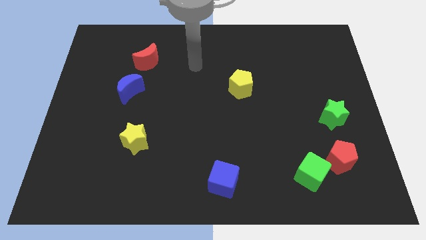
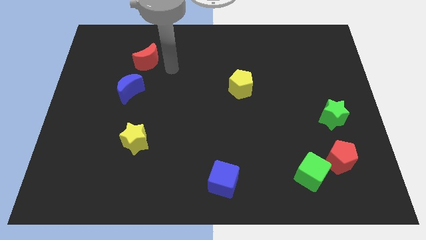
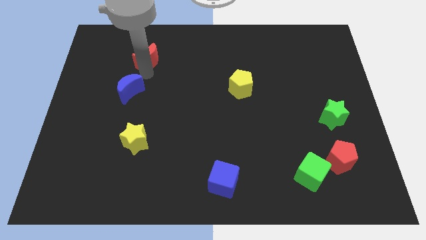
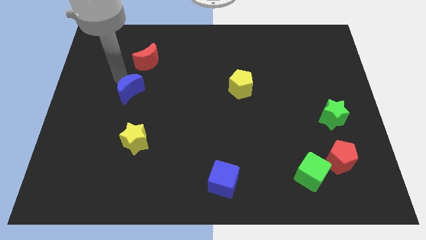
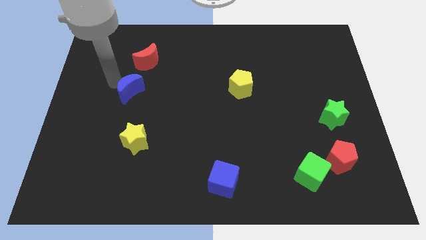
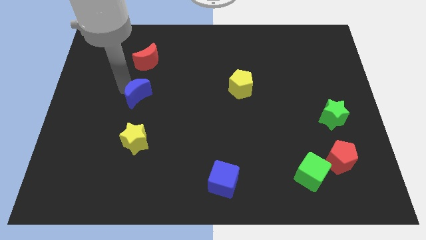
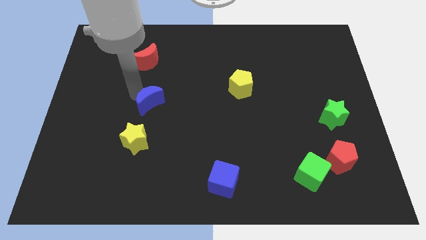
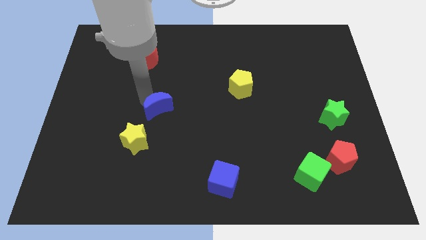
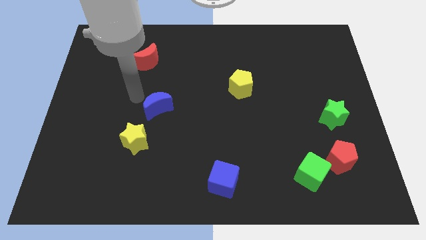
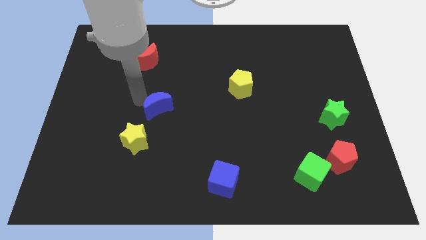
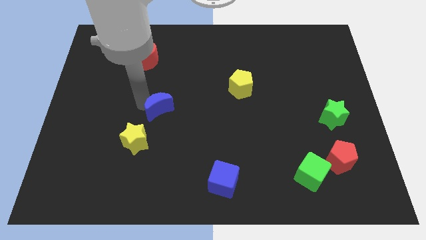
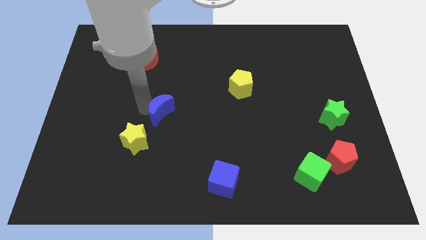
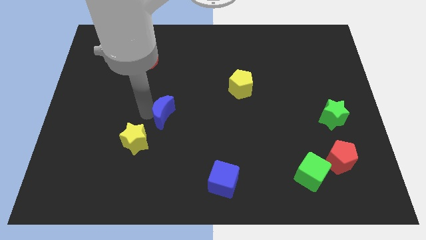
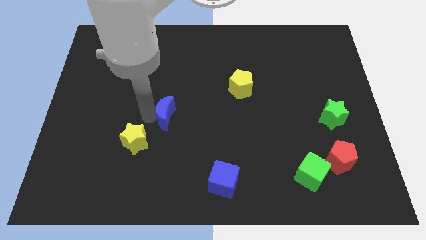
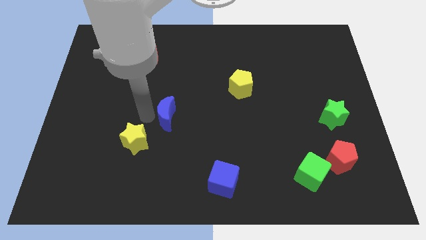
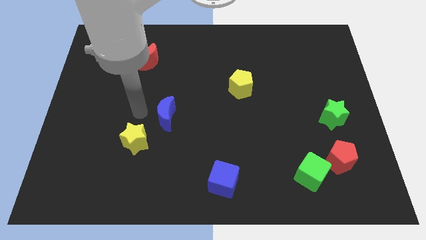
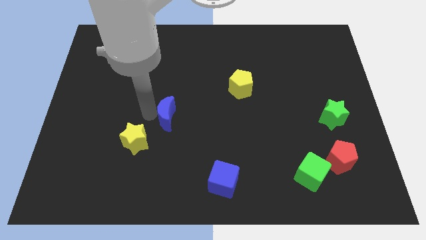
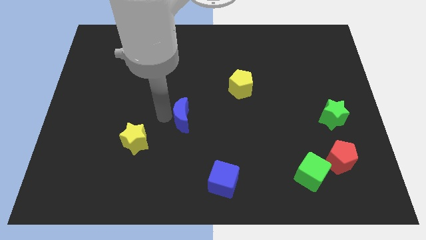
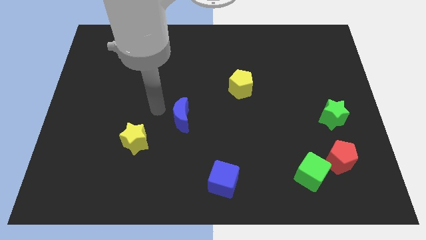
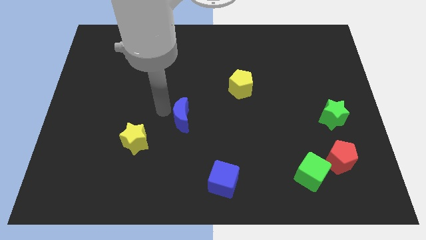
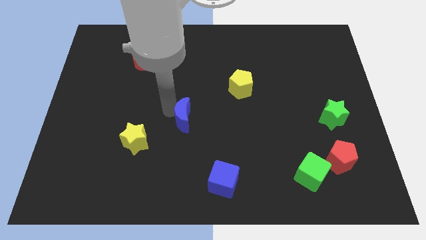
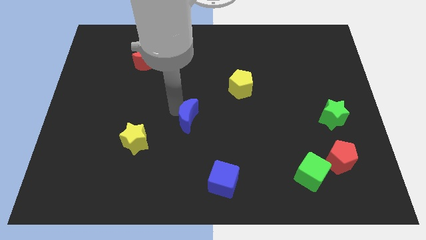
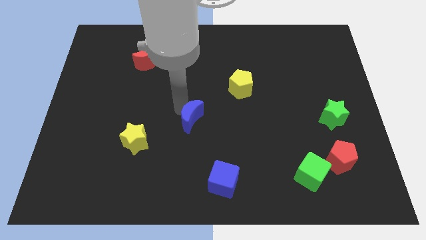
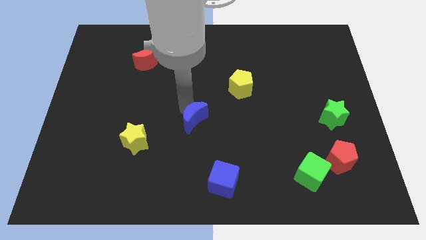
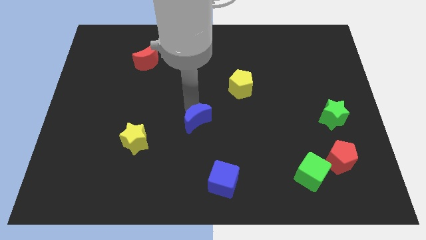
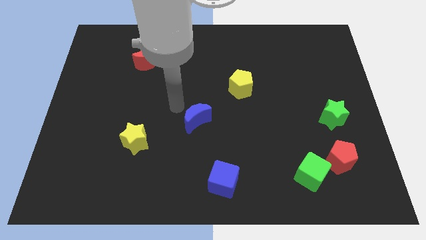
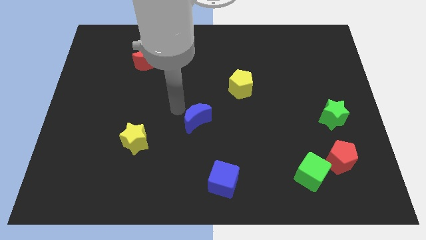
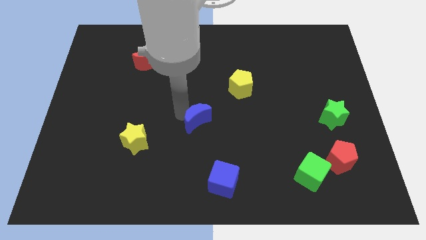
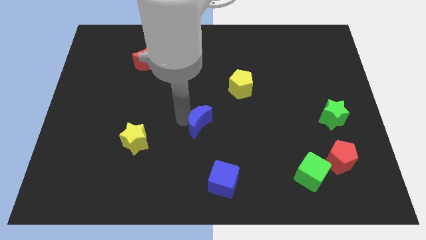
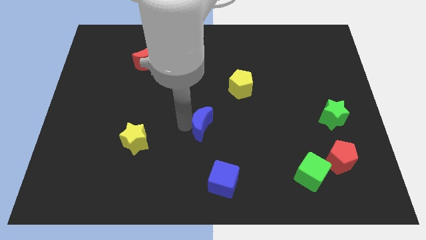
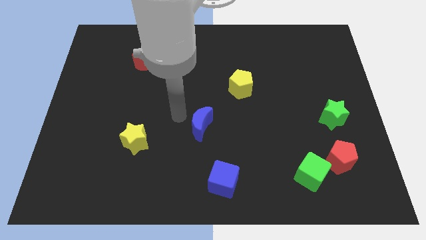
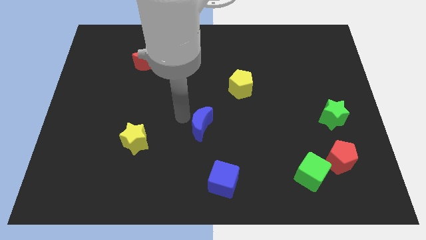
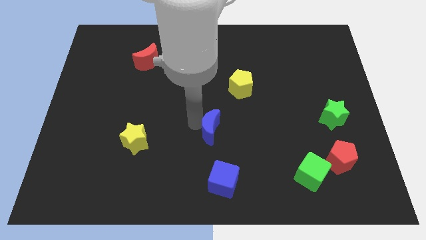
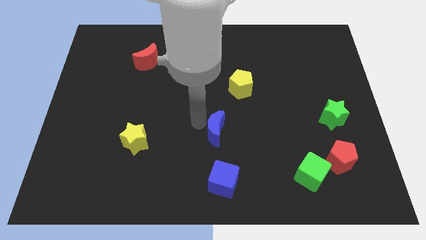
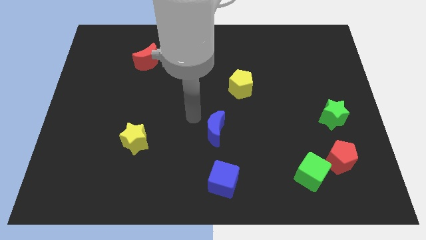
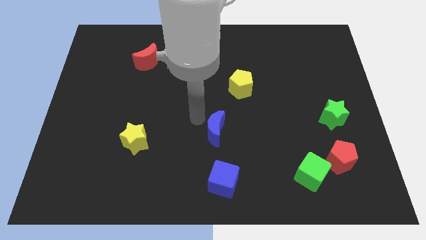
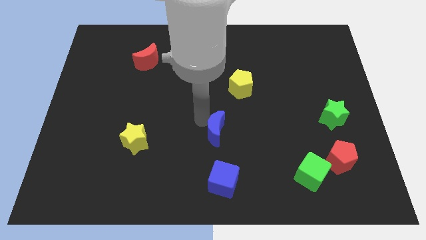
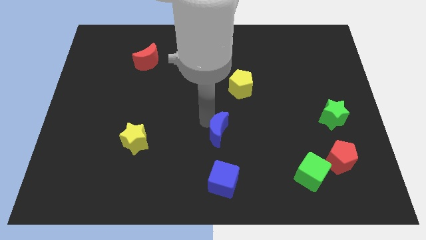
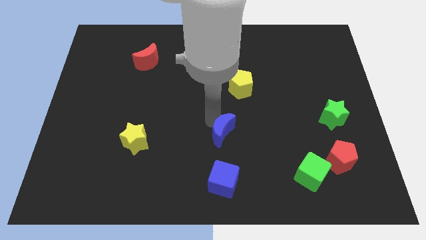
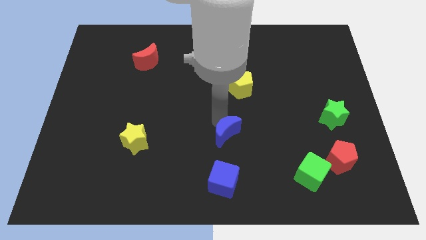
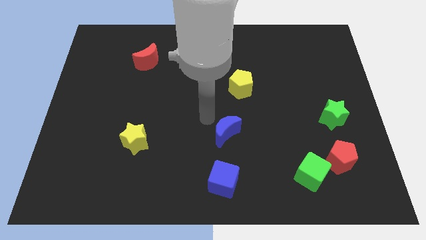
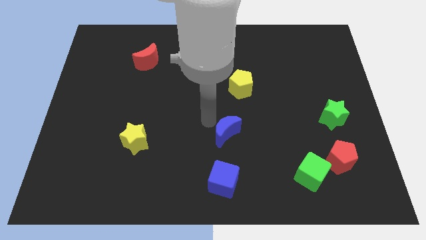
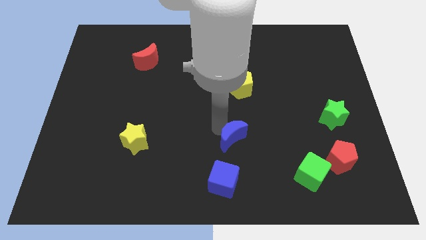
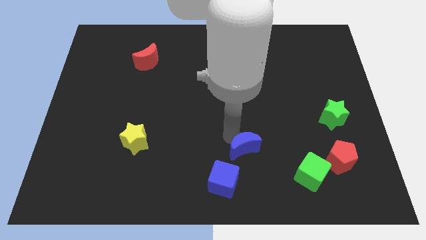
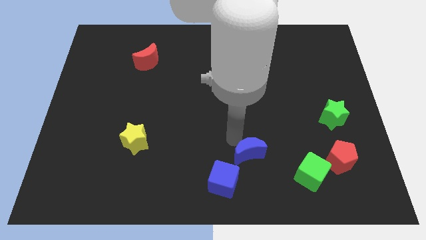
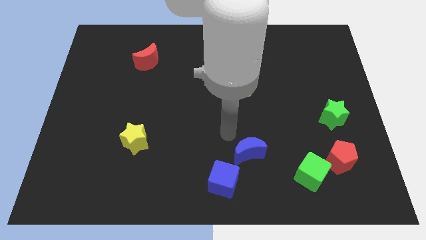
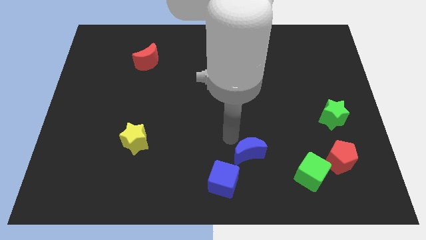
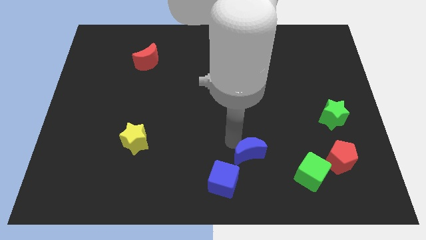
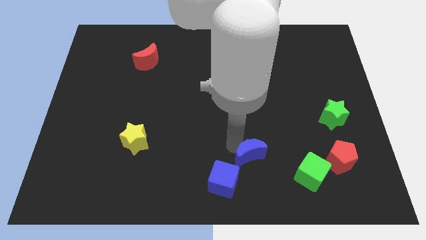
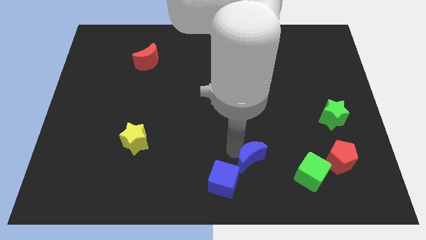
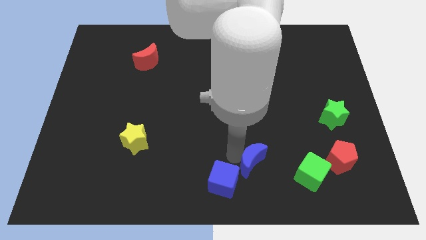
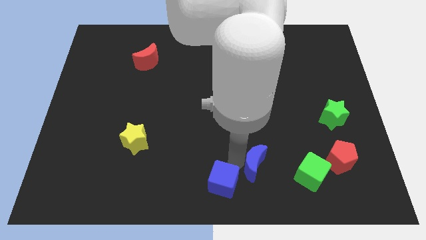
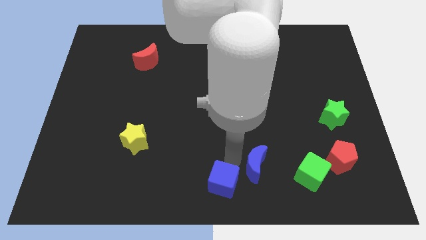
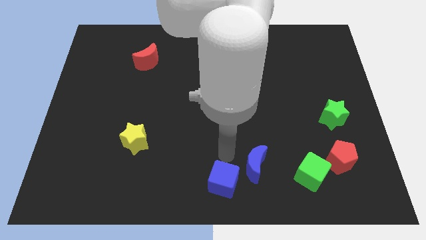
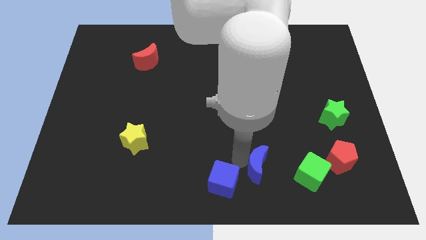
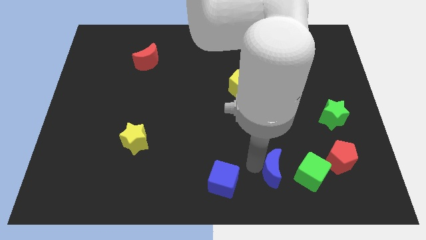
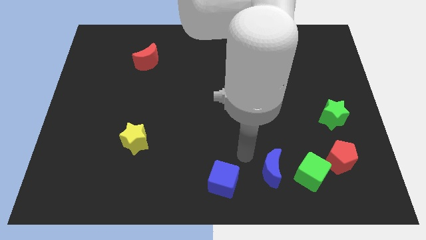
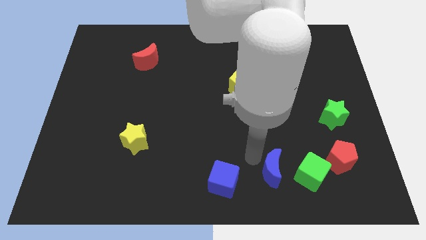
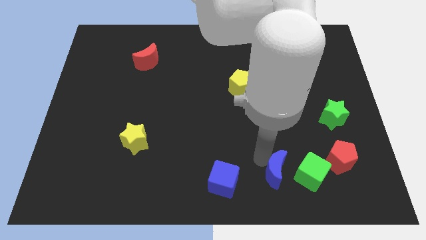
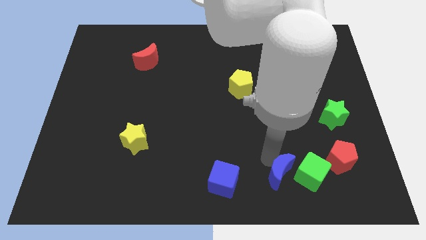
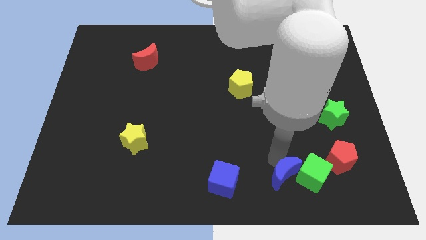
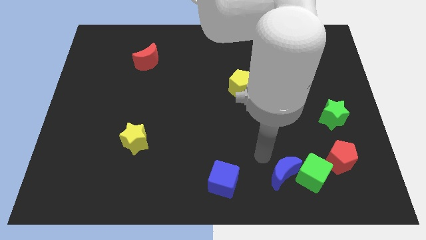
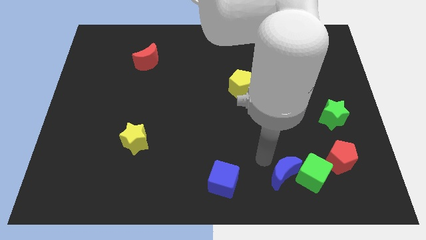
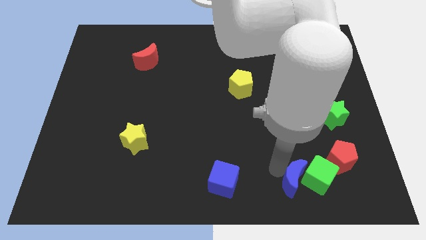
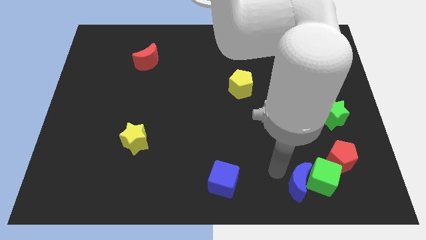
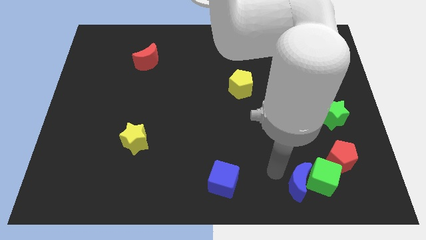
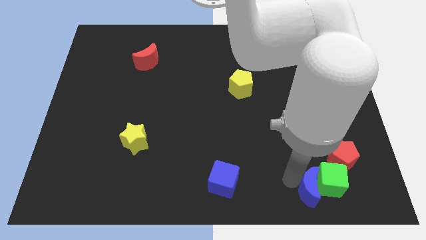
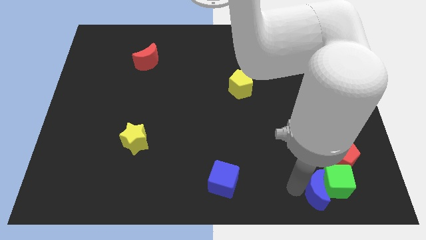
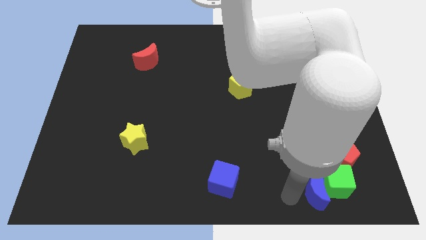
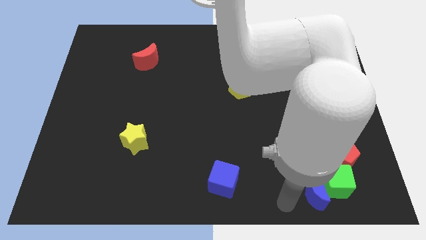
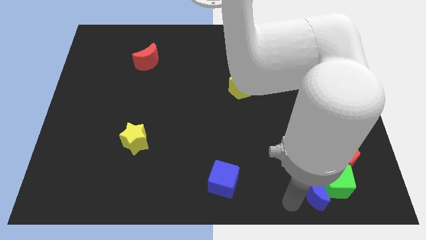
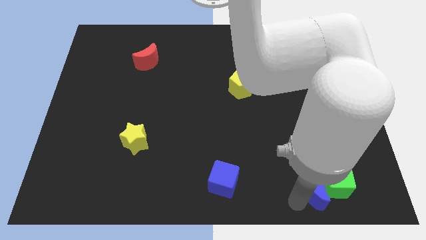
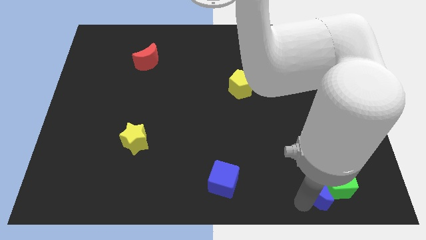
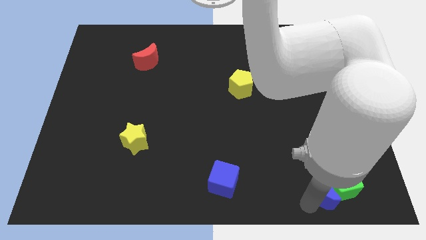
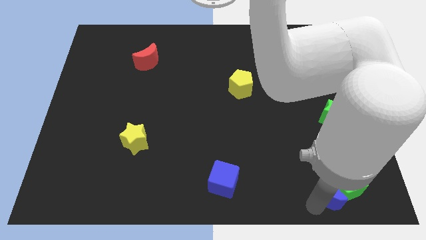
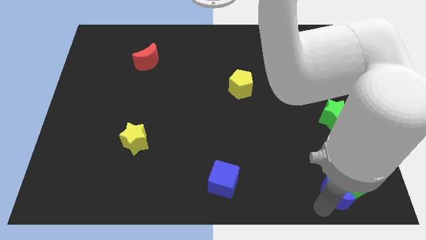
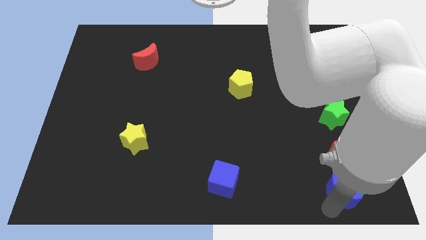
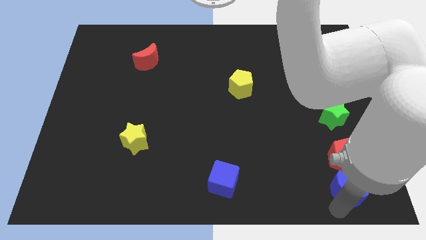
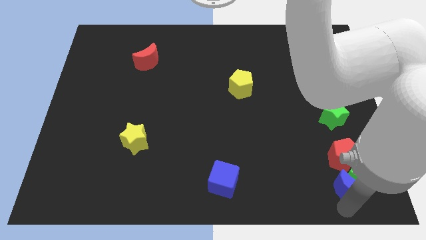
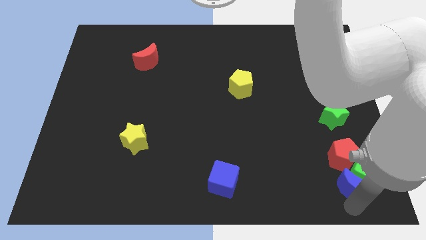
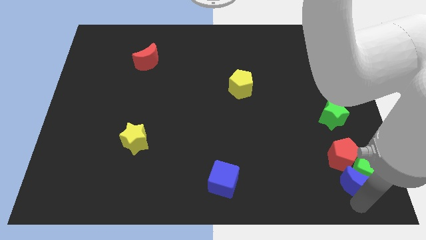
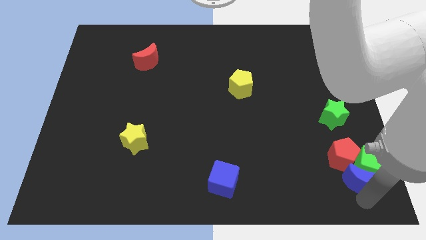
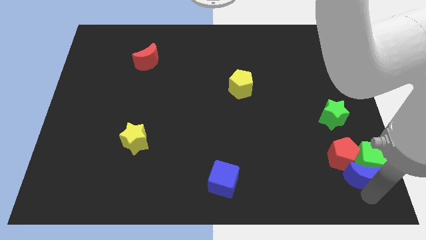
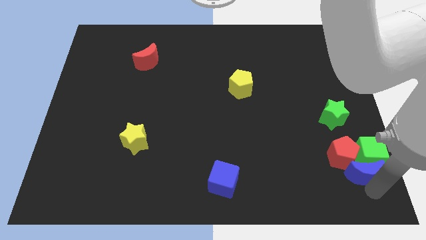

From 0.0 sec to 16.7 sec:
push the blue moon to the bottom of the green star
